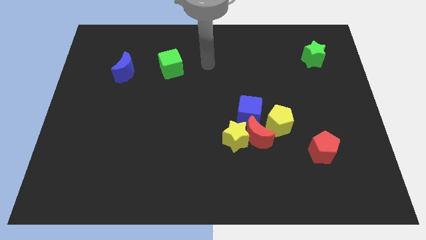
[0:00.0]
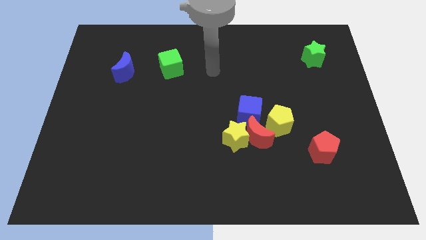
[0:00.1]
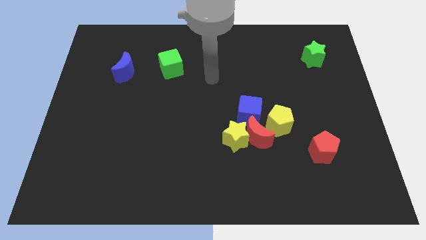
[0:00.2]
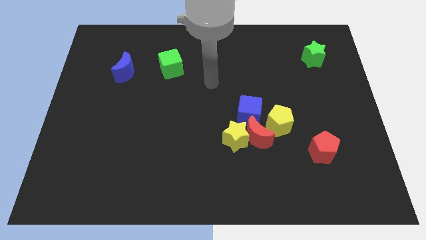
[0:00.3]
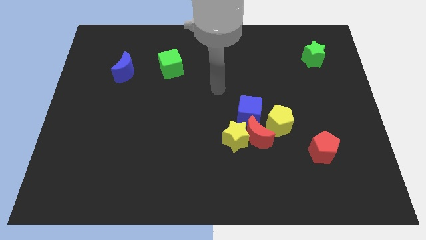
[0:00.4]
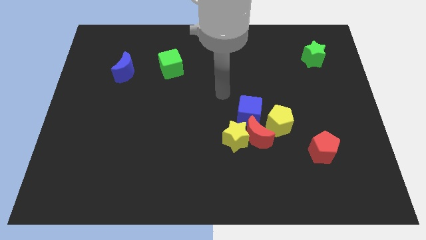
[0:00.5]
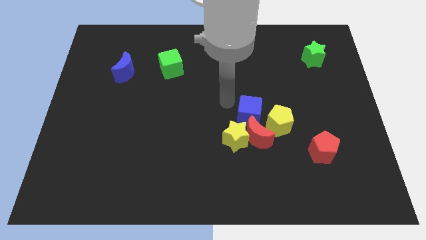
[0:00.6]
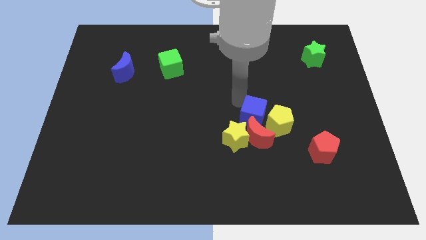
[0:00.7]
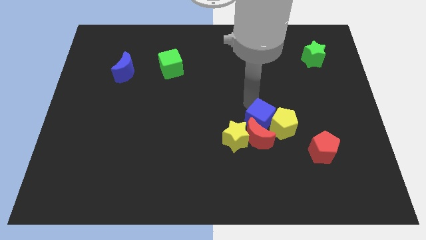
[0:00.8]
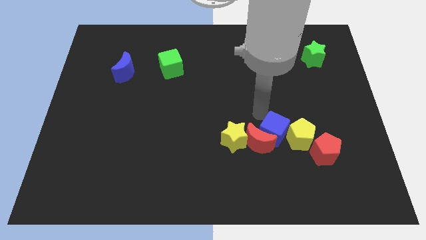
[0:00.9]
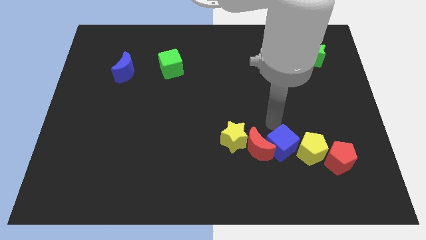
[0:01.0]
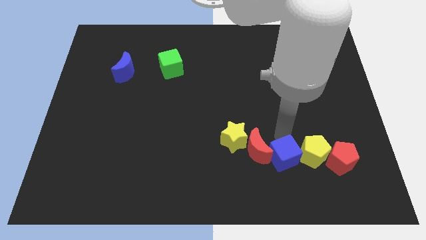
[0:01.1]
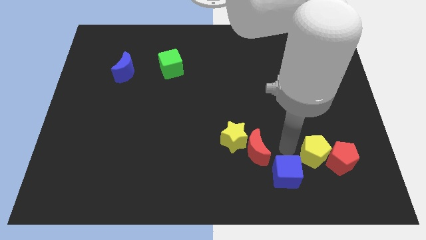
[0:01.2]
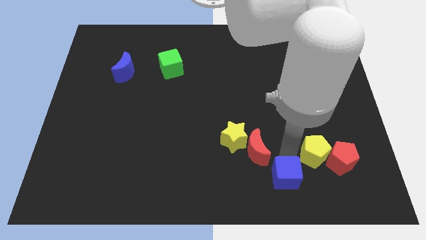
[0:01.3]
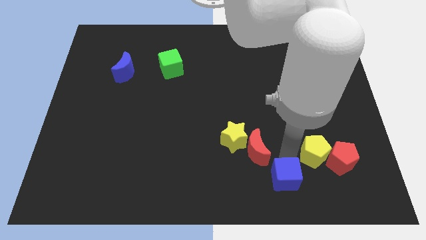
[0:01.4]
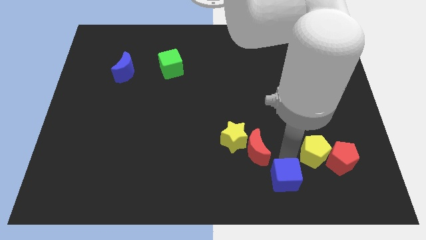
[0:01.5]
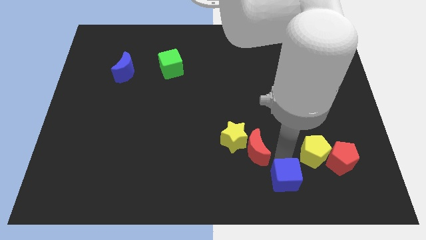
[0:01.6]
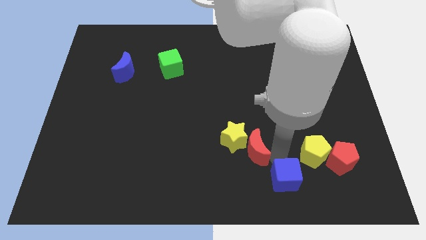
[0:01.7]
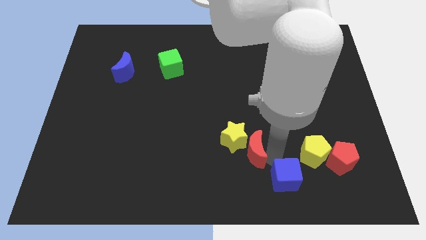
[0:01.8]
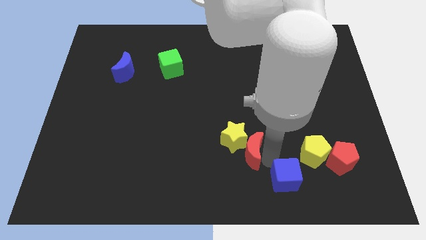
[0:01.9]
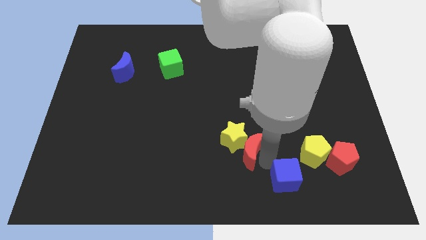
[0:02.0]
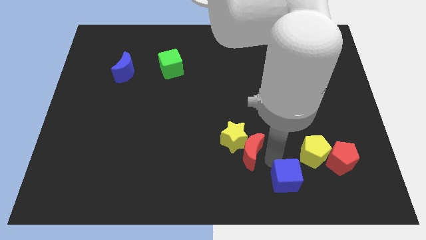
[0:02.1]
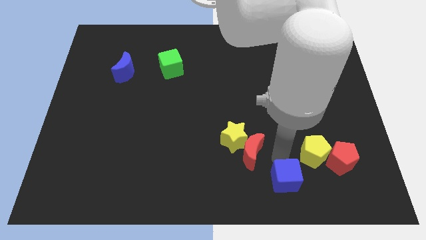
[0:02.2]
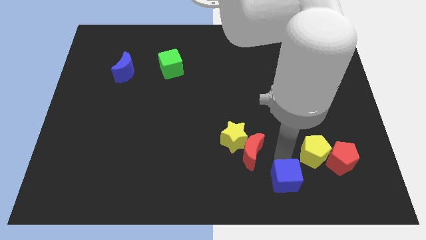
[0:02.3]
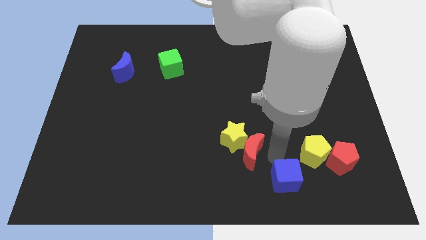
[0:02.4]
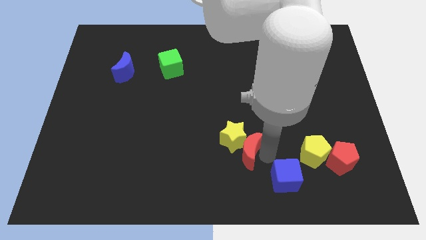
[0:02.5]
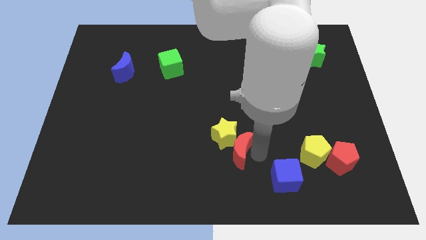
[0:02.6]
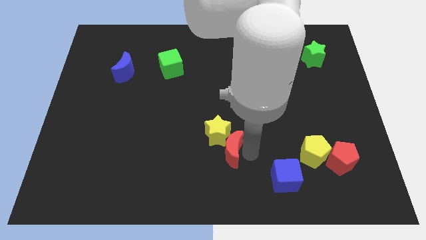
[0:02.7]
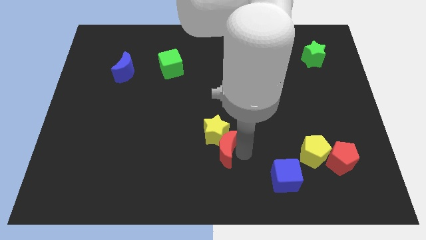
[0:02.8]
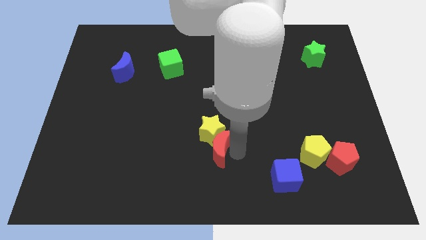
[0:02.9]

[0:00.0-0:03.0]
separate the red moon from the group

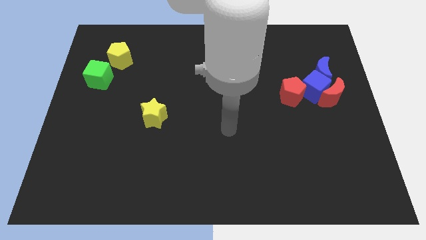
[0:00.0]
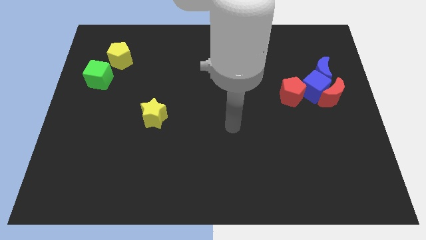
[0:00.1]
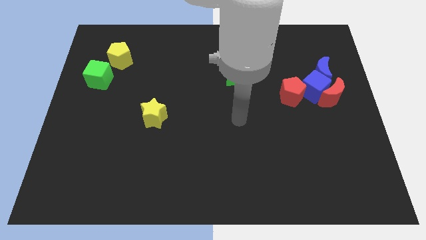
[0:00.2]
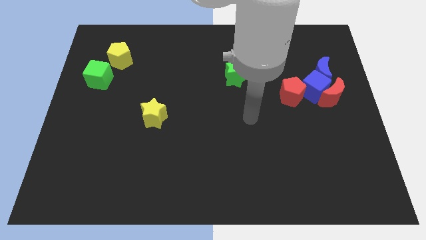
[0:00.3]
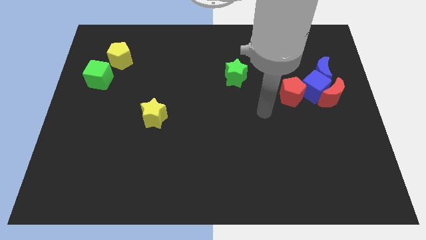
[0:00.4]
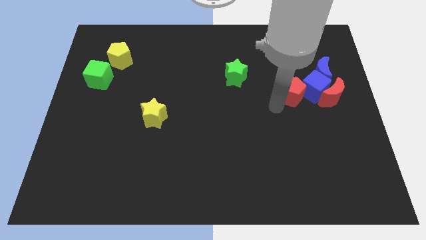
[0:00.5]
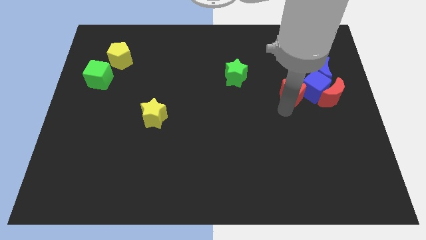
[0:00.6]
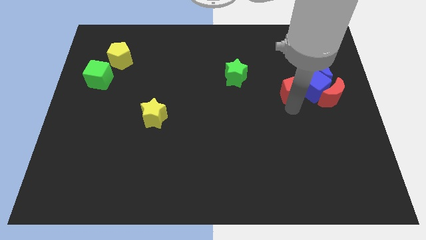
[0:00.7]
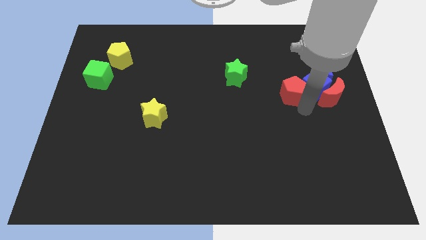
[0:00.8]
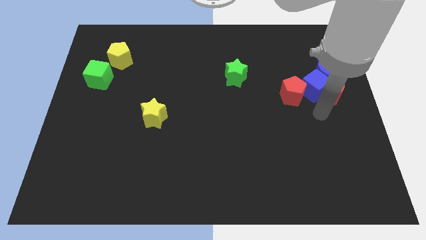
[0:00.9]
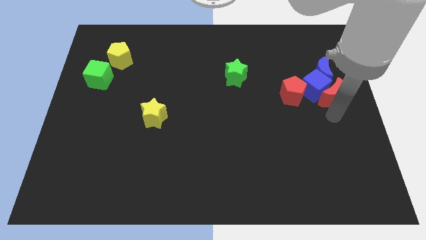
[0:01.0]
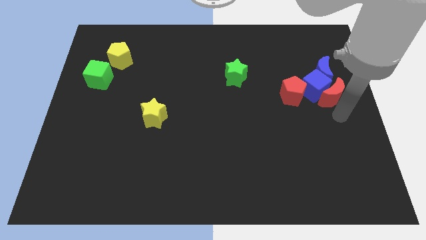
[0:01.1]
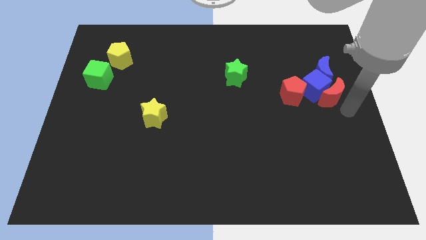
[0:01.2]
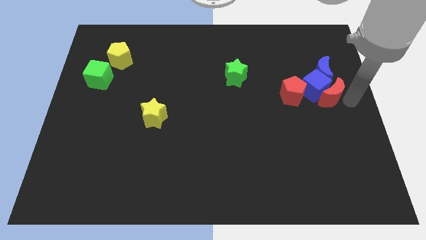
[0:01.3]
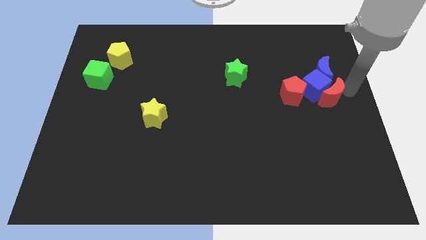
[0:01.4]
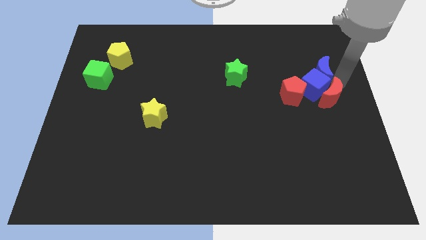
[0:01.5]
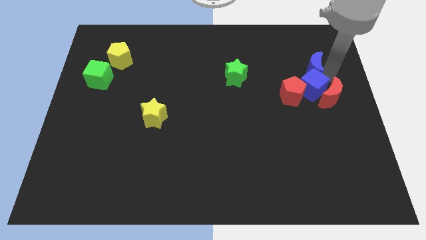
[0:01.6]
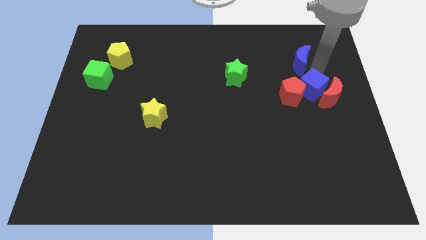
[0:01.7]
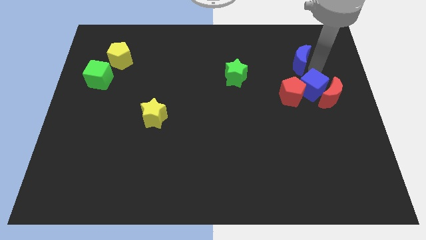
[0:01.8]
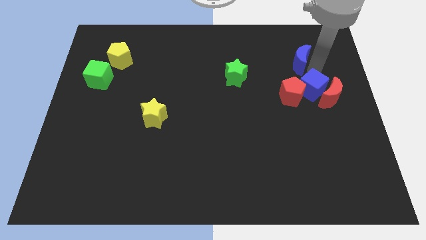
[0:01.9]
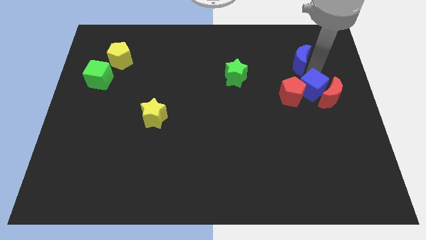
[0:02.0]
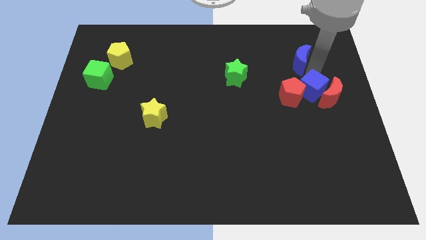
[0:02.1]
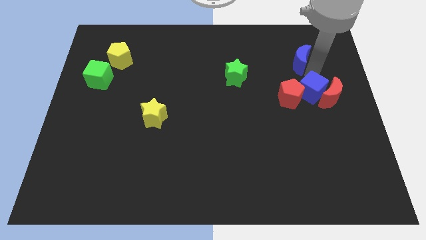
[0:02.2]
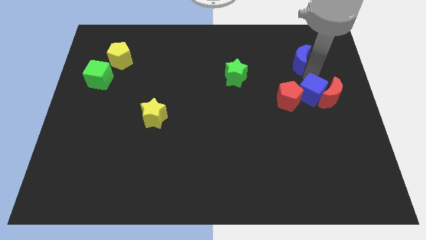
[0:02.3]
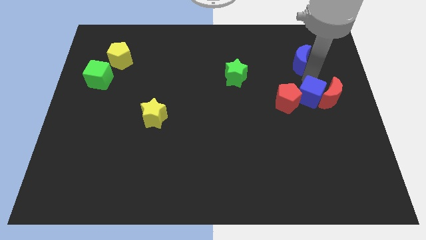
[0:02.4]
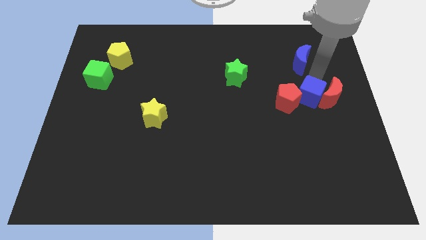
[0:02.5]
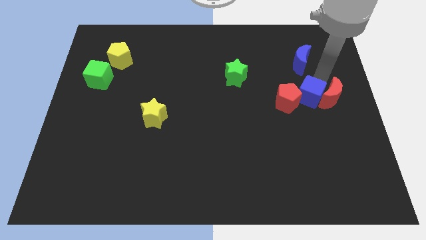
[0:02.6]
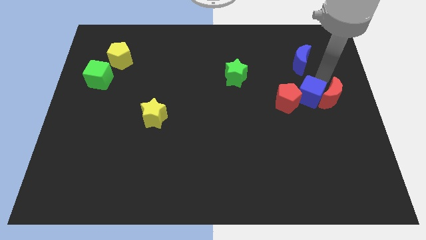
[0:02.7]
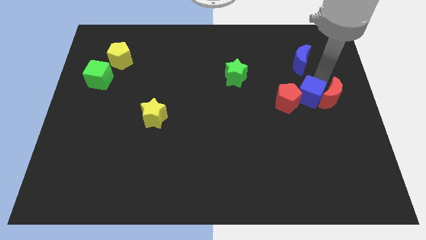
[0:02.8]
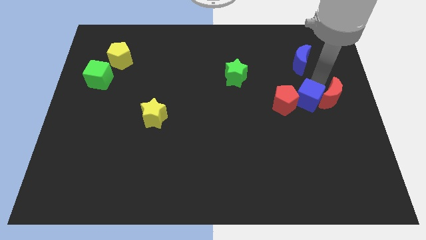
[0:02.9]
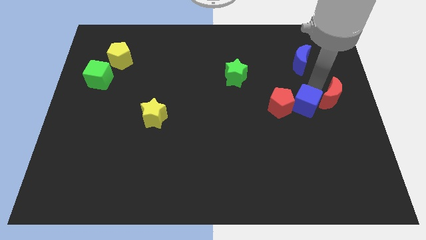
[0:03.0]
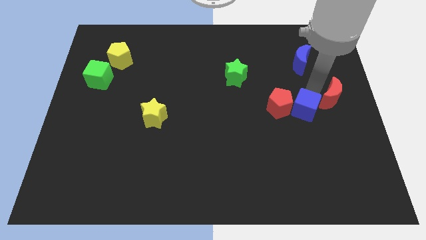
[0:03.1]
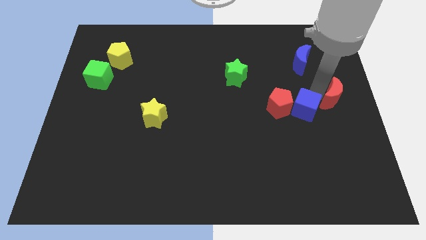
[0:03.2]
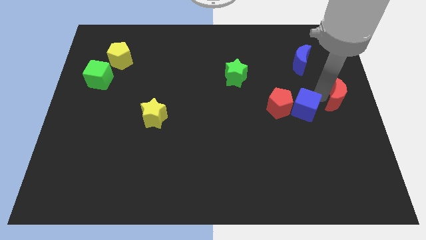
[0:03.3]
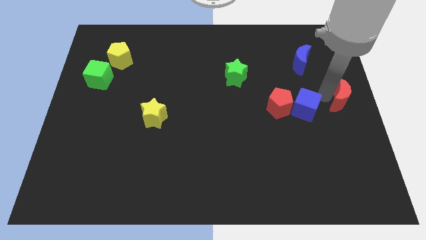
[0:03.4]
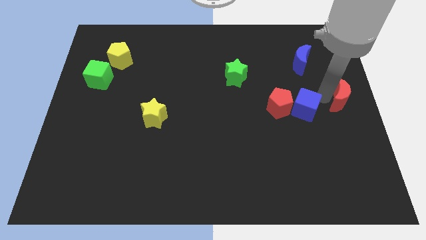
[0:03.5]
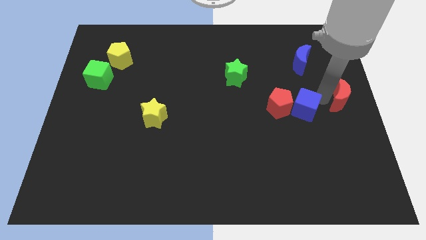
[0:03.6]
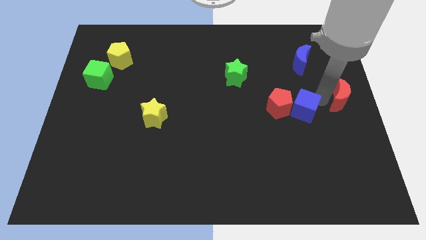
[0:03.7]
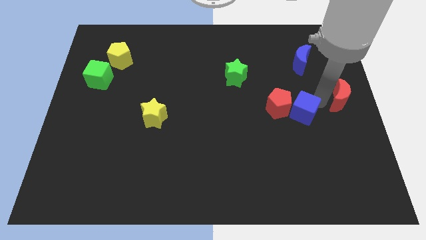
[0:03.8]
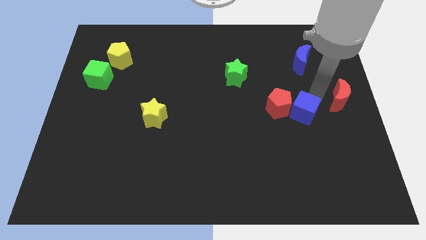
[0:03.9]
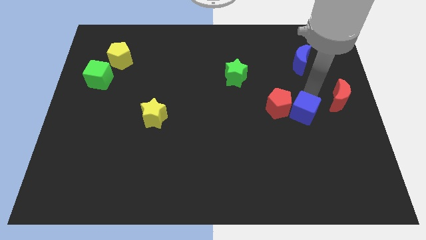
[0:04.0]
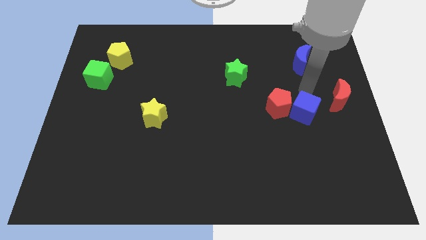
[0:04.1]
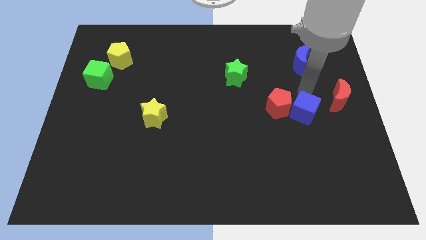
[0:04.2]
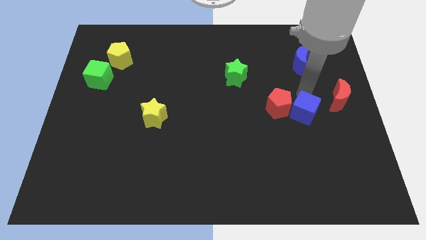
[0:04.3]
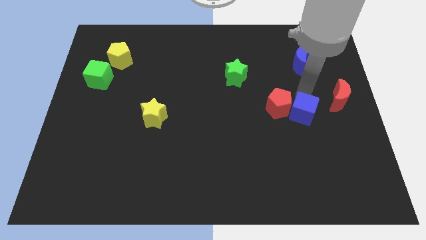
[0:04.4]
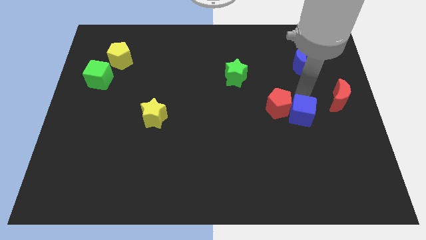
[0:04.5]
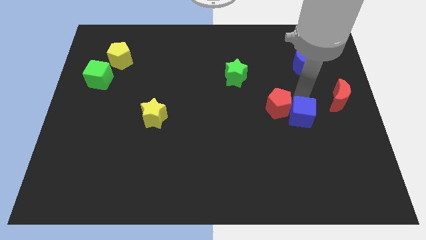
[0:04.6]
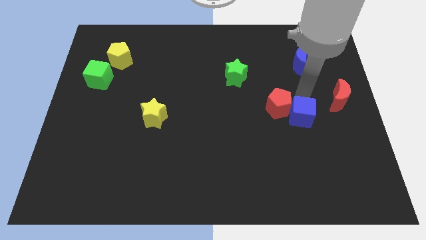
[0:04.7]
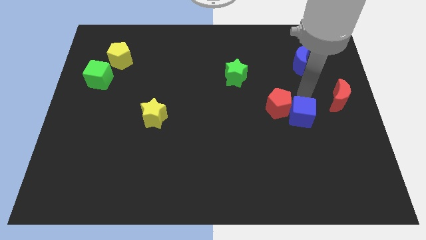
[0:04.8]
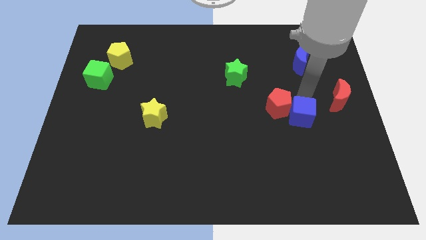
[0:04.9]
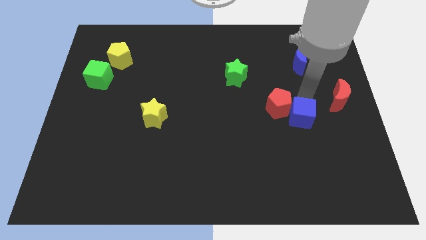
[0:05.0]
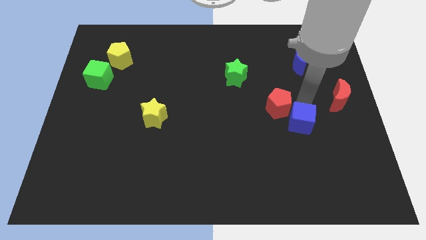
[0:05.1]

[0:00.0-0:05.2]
move the blue cube away from the group of blocks

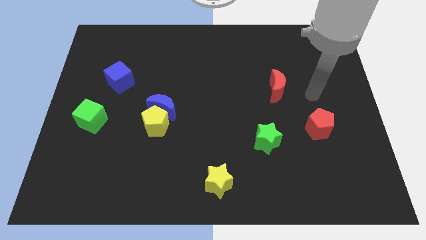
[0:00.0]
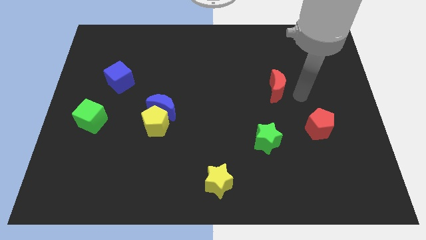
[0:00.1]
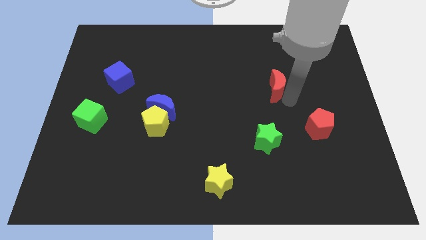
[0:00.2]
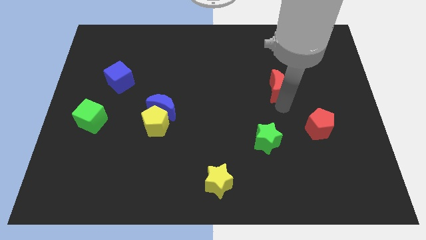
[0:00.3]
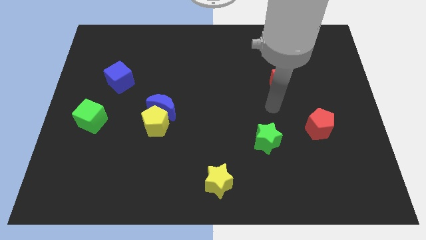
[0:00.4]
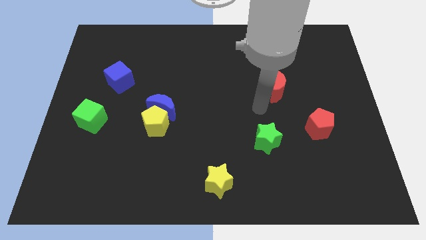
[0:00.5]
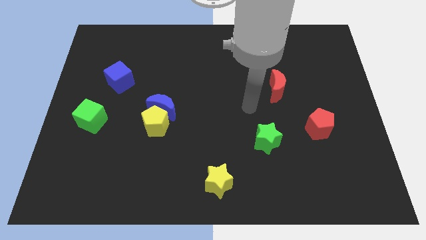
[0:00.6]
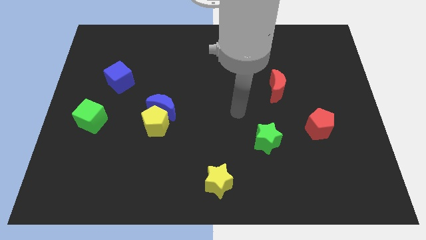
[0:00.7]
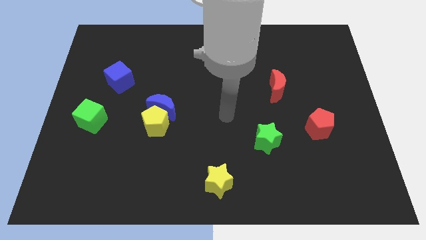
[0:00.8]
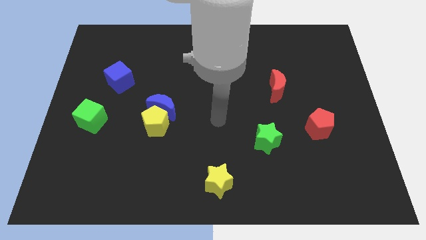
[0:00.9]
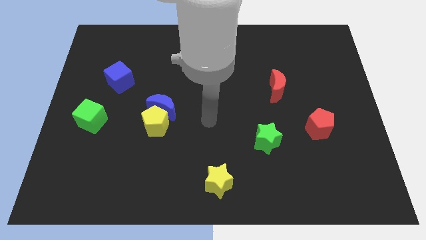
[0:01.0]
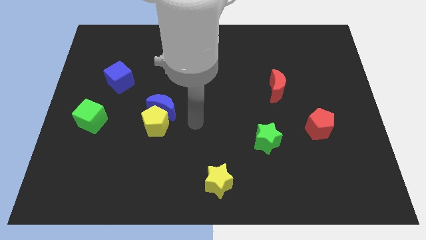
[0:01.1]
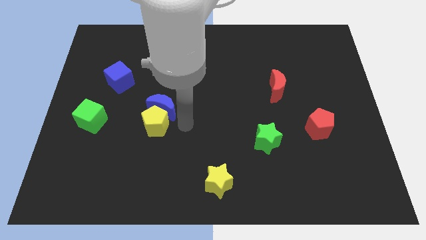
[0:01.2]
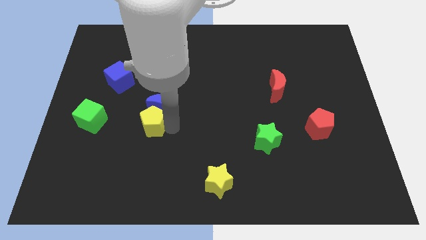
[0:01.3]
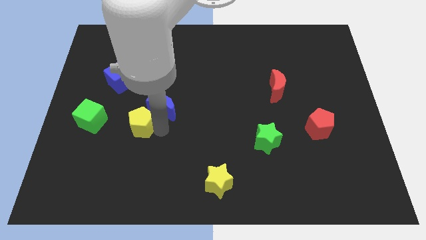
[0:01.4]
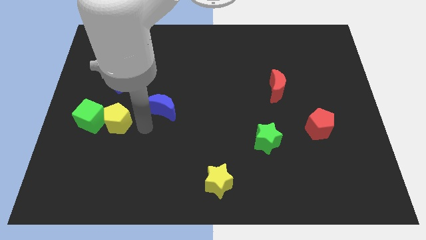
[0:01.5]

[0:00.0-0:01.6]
separate the blue moon from the yellow pentagon
